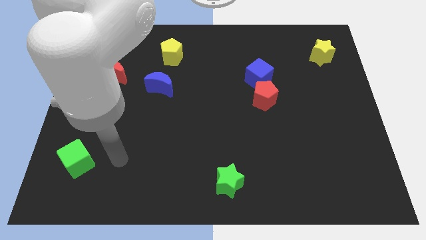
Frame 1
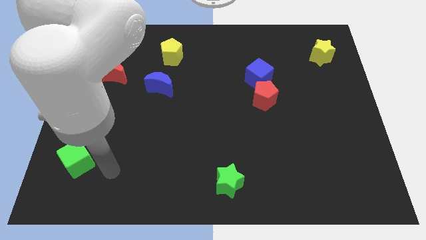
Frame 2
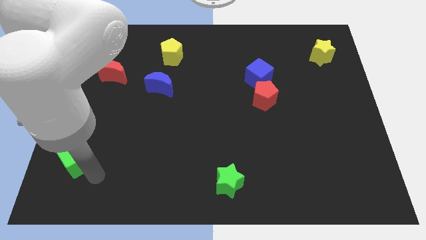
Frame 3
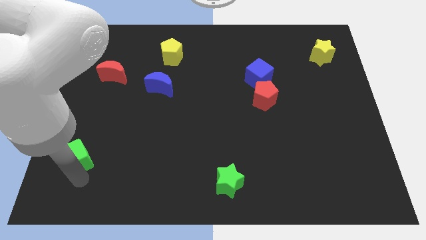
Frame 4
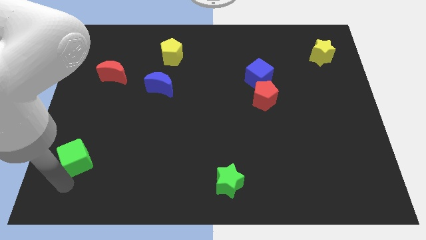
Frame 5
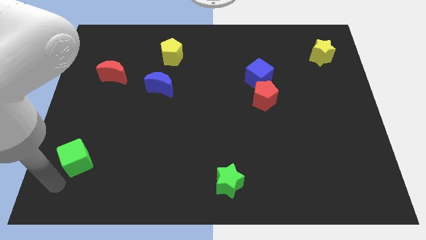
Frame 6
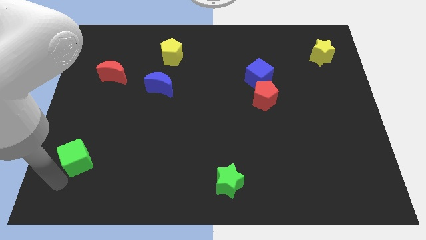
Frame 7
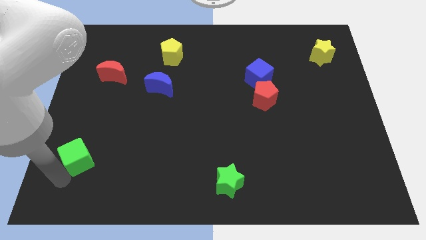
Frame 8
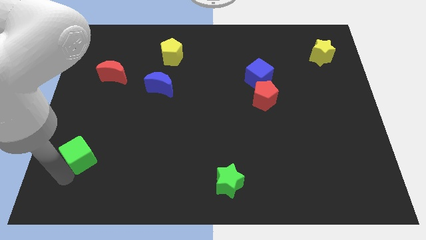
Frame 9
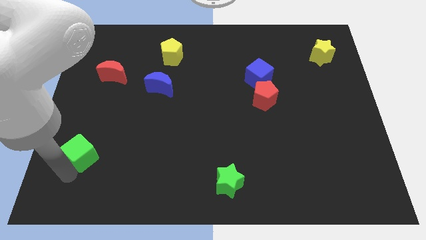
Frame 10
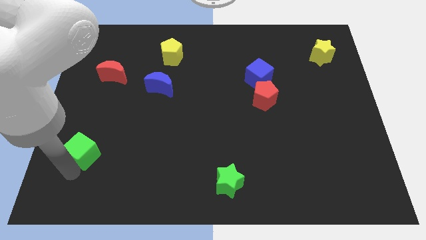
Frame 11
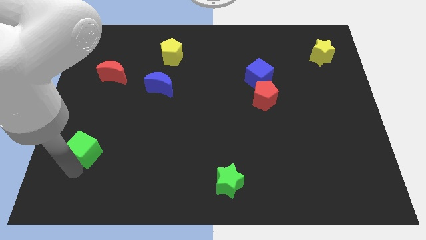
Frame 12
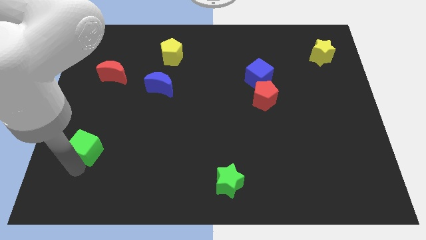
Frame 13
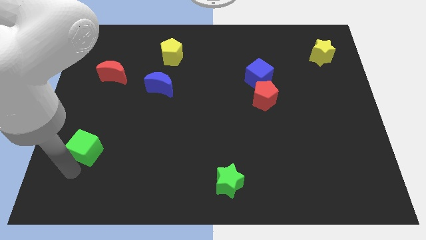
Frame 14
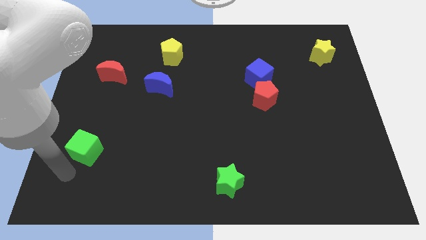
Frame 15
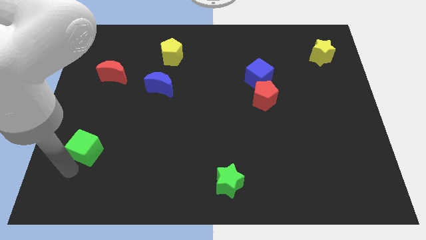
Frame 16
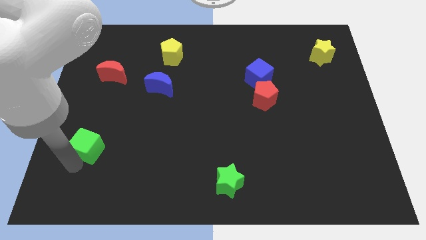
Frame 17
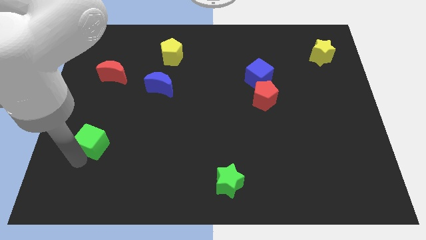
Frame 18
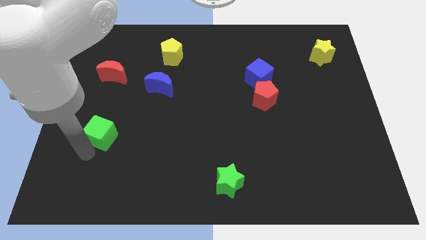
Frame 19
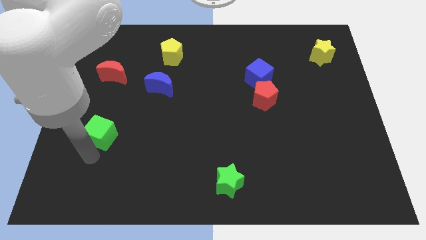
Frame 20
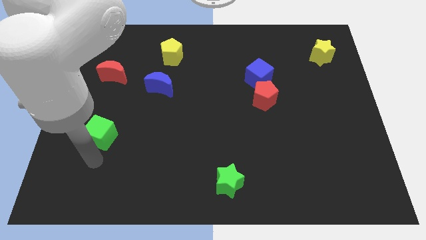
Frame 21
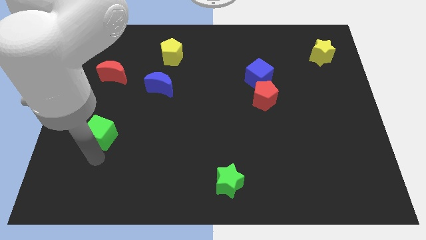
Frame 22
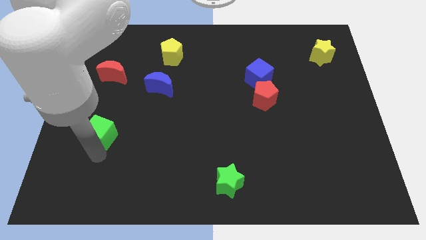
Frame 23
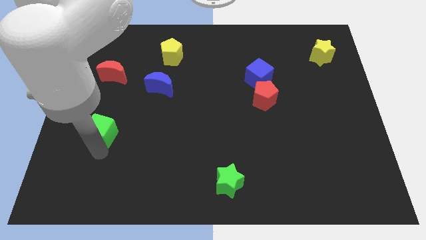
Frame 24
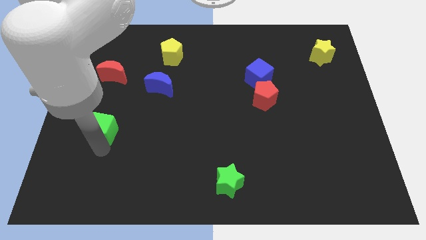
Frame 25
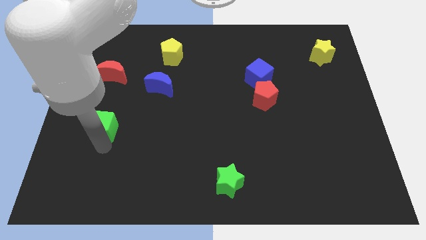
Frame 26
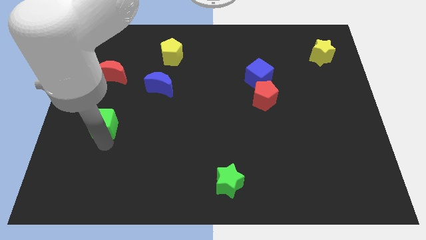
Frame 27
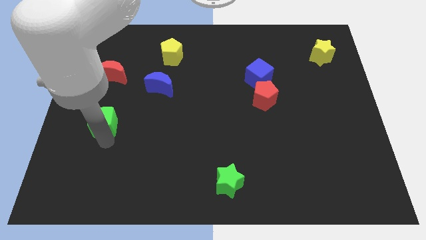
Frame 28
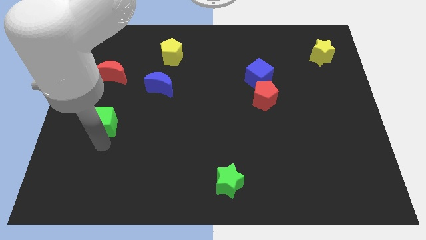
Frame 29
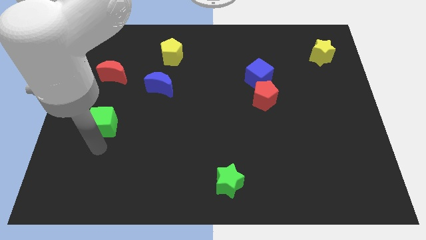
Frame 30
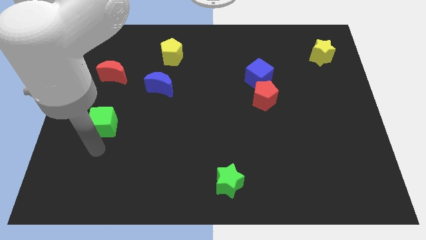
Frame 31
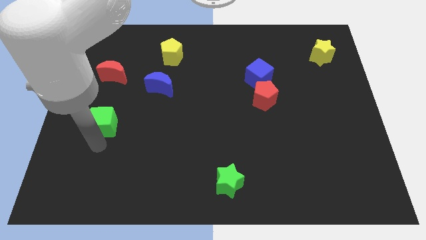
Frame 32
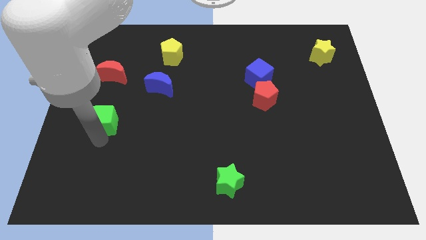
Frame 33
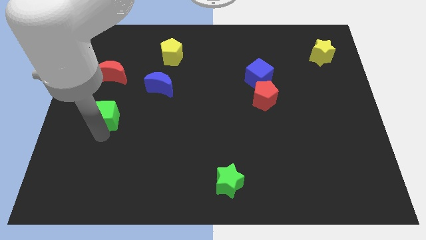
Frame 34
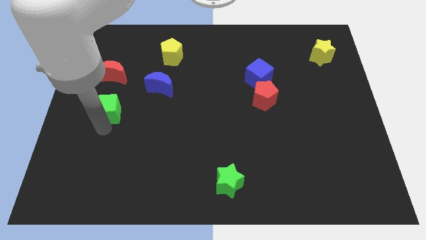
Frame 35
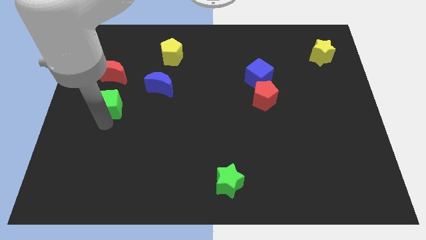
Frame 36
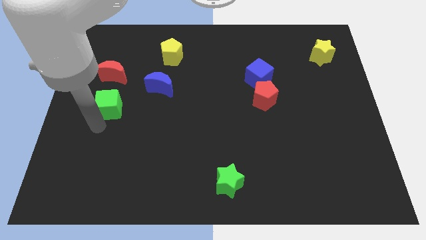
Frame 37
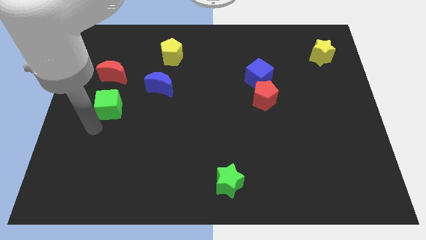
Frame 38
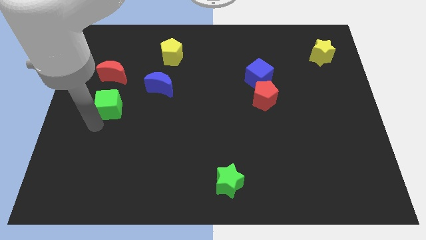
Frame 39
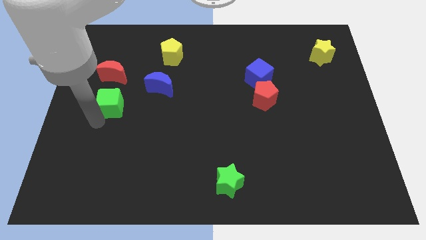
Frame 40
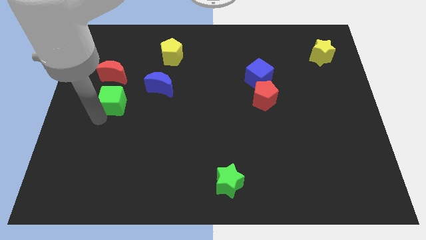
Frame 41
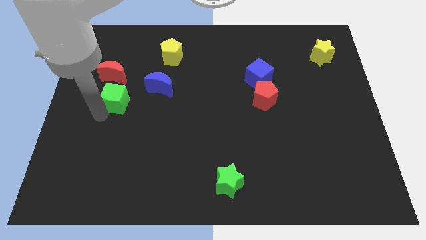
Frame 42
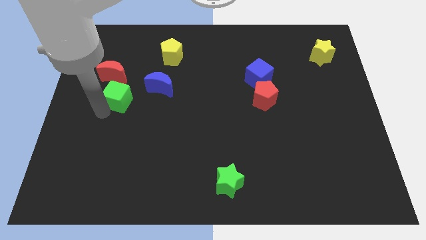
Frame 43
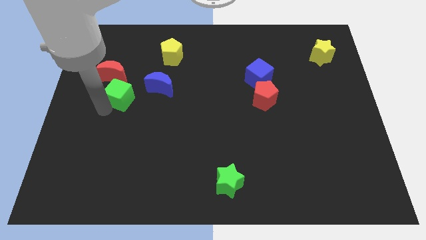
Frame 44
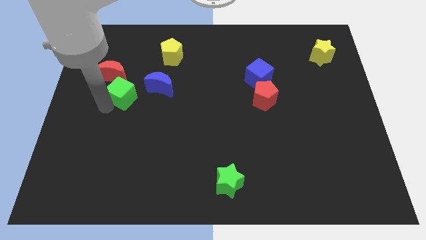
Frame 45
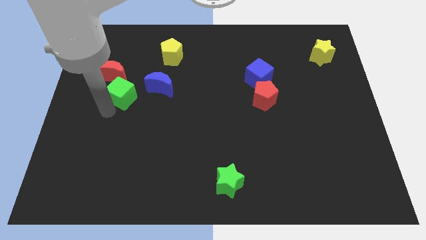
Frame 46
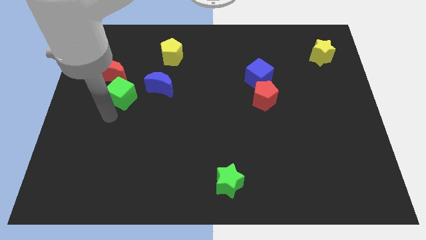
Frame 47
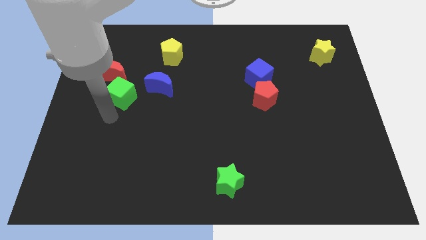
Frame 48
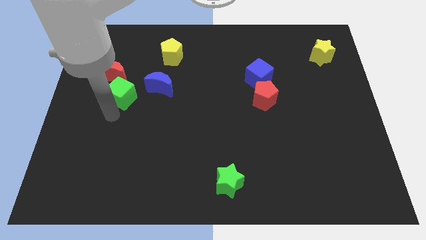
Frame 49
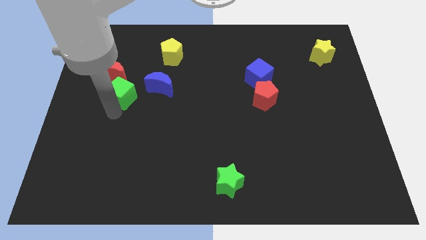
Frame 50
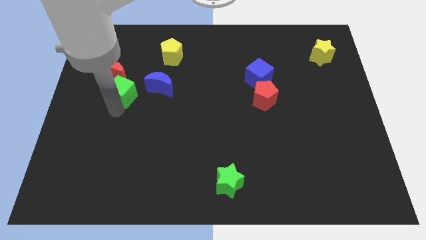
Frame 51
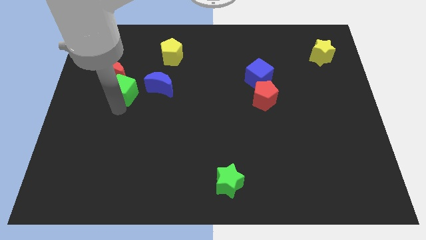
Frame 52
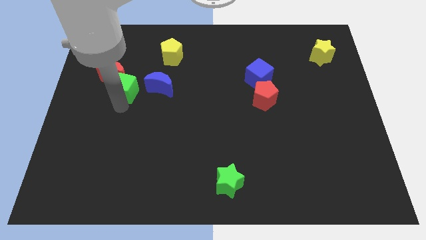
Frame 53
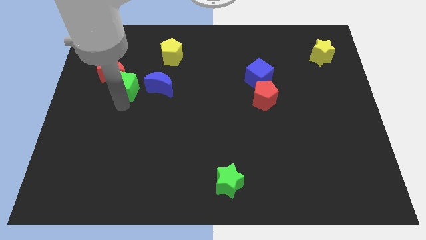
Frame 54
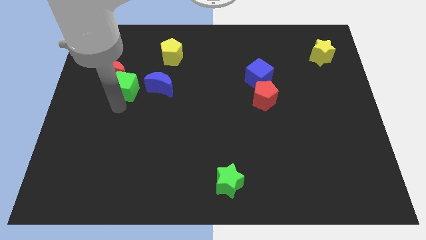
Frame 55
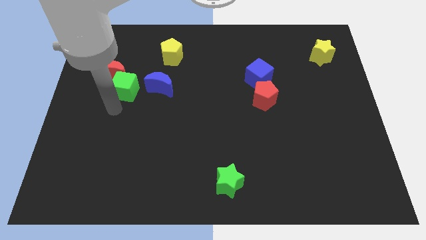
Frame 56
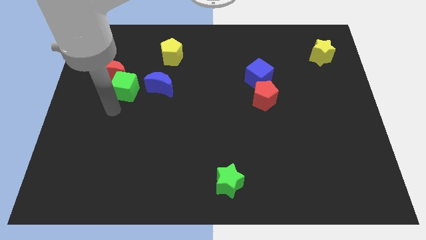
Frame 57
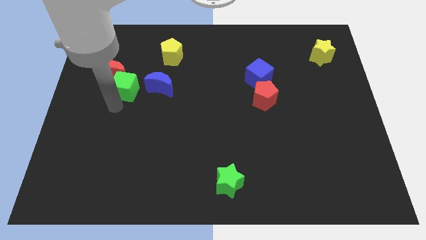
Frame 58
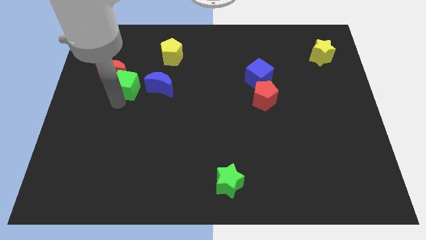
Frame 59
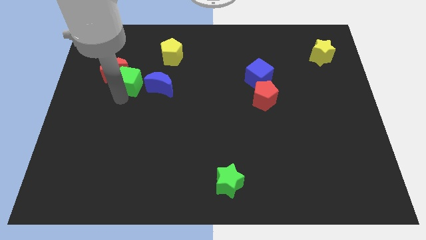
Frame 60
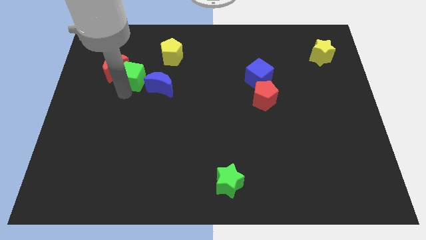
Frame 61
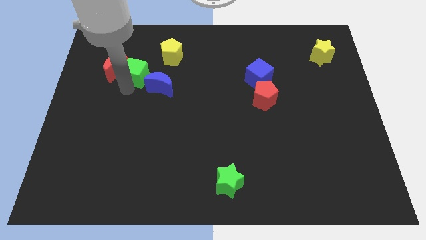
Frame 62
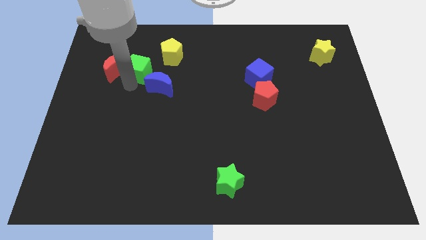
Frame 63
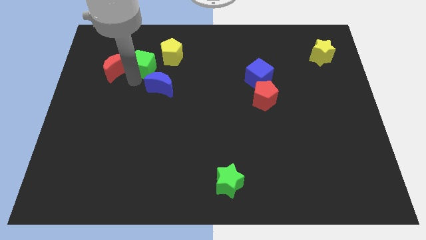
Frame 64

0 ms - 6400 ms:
push the green cube to the top of the blue moon
